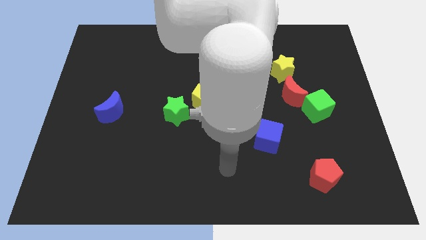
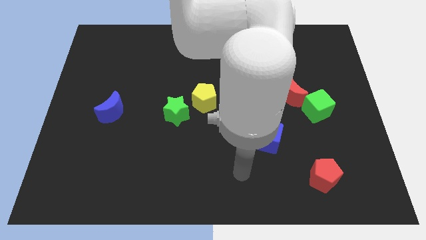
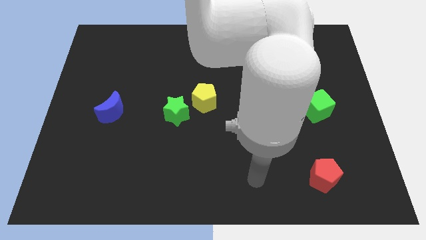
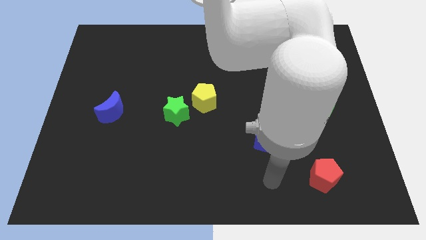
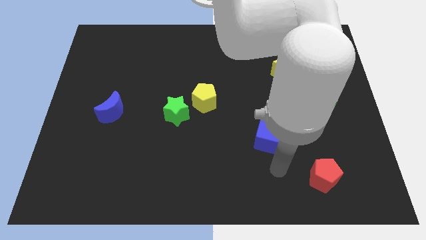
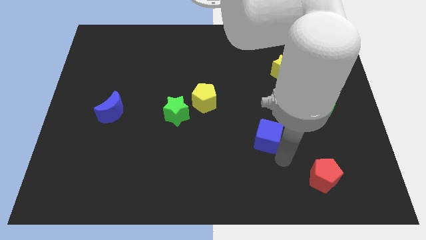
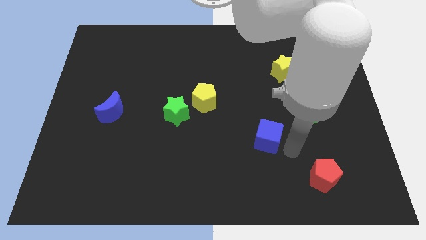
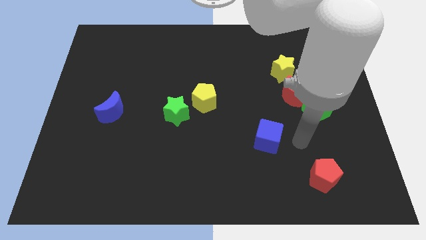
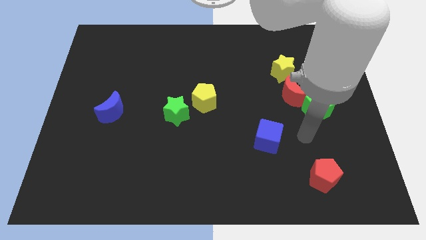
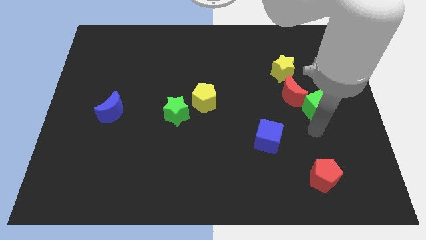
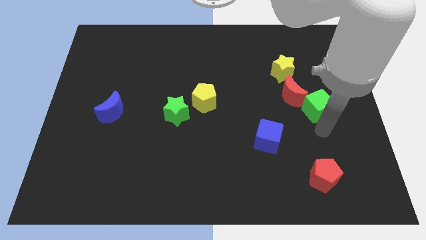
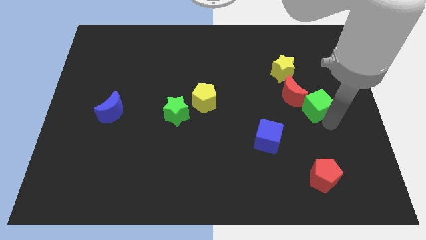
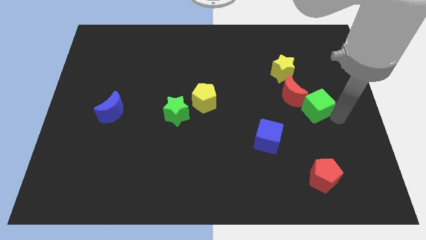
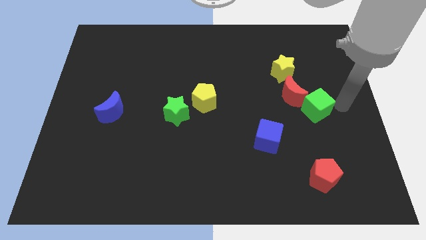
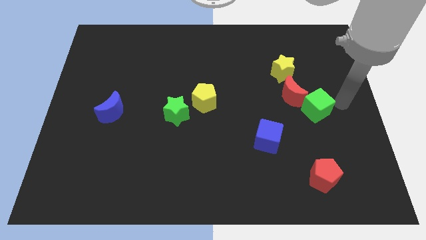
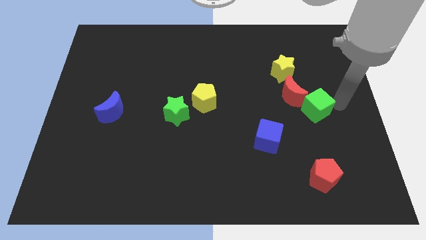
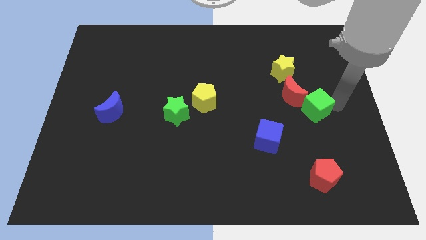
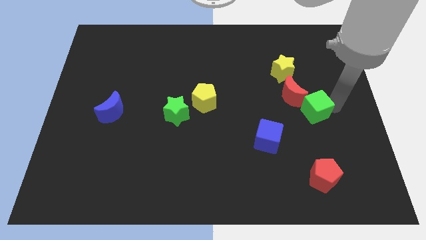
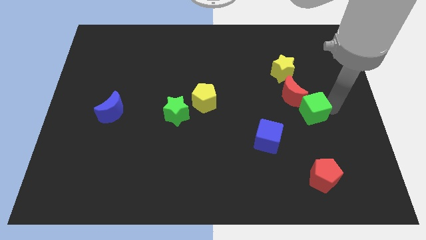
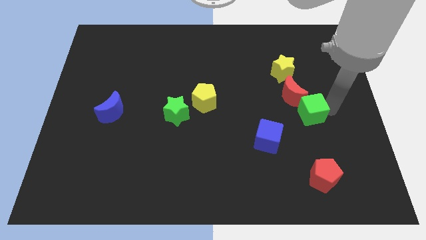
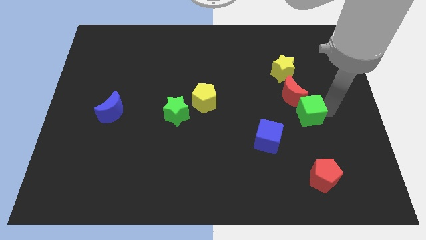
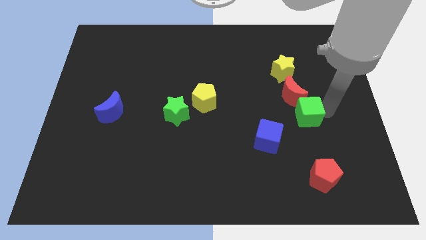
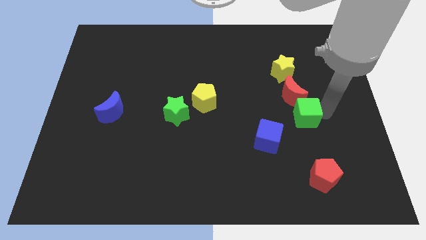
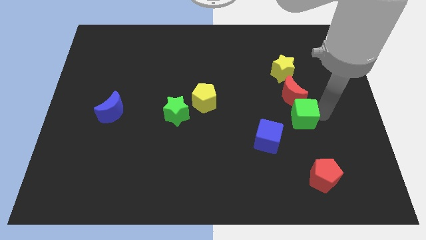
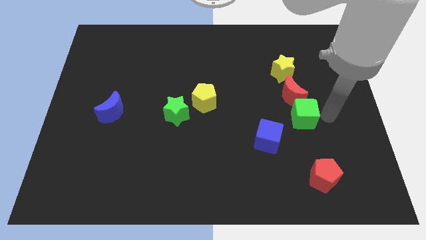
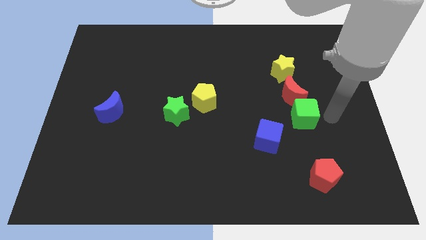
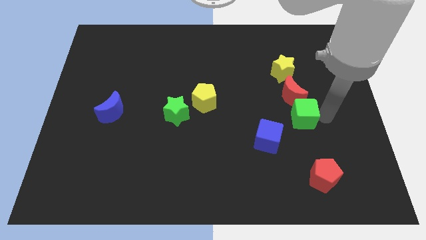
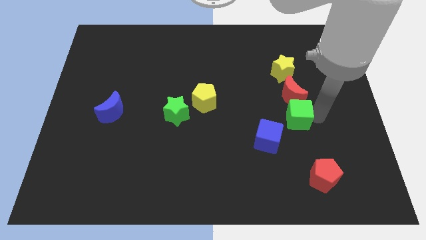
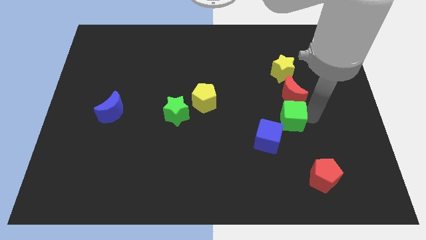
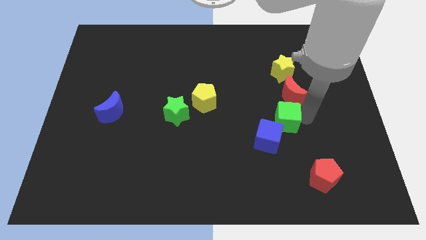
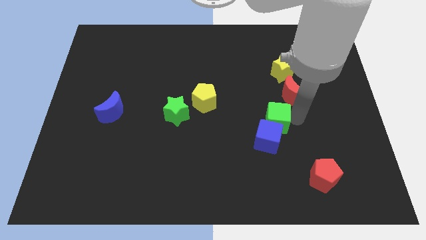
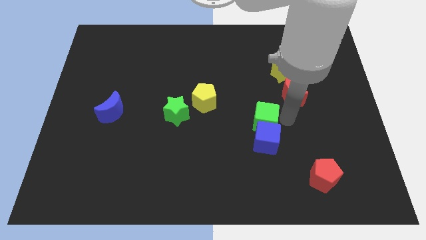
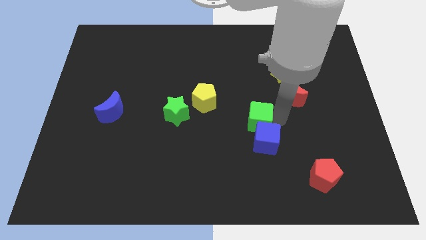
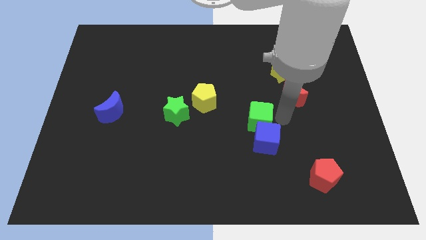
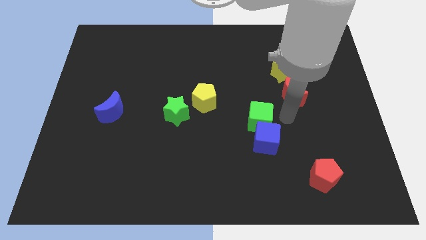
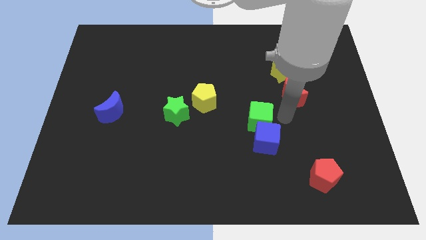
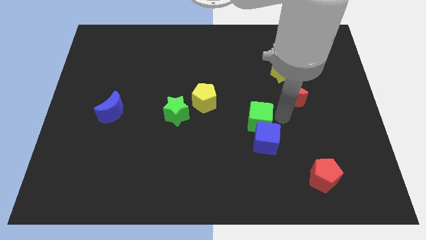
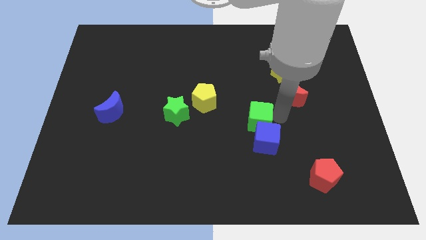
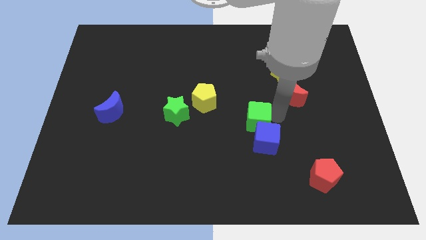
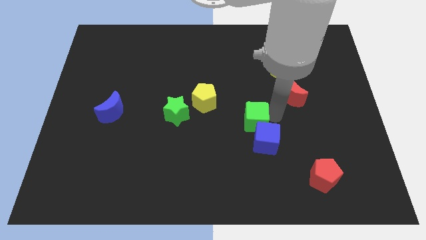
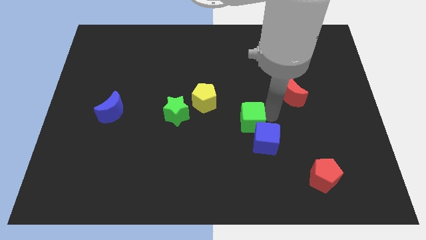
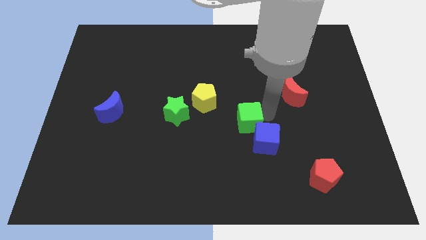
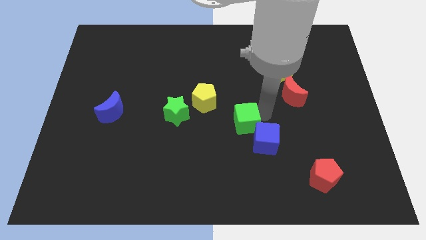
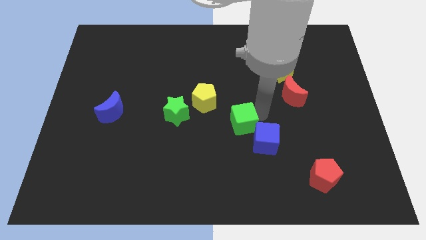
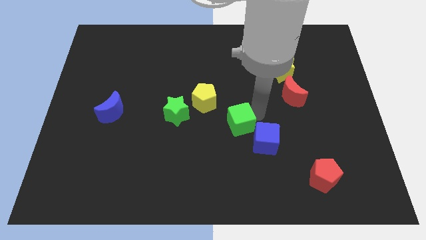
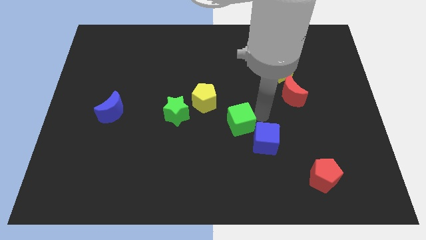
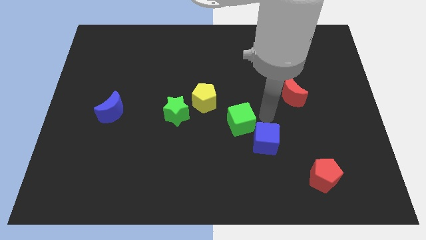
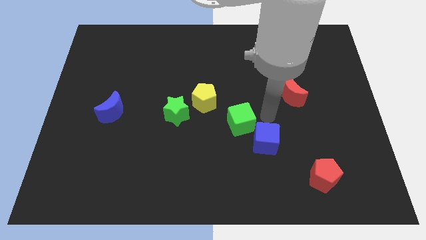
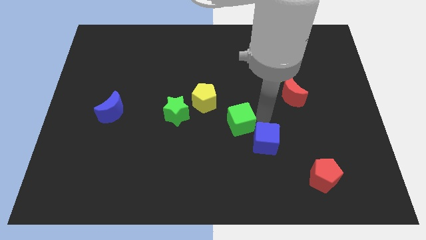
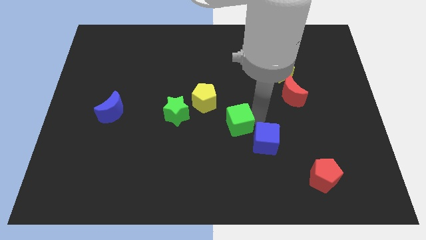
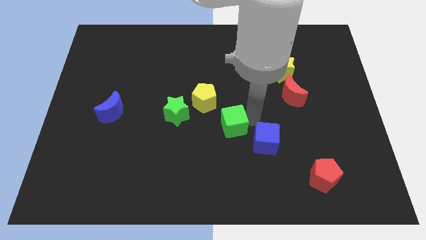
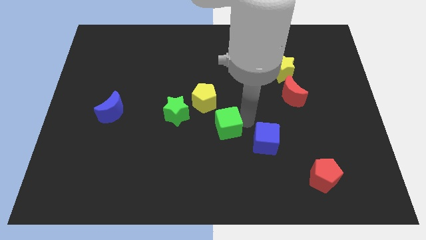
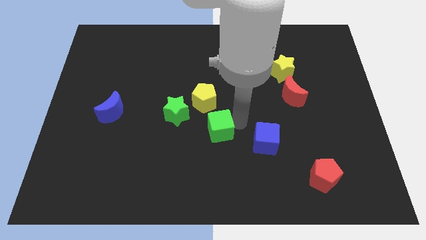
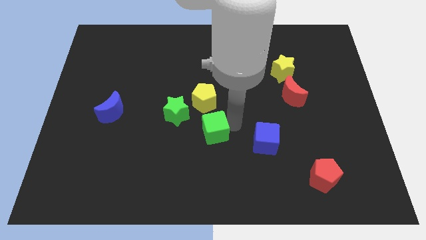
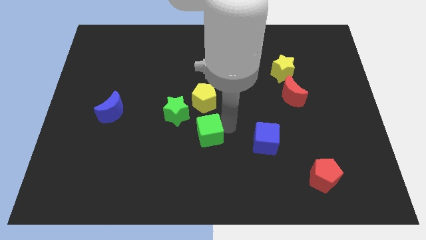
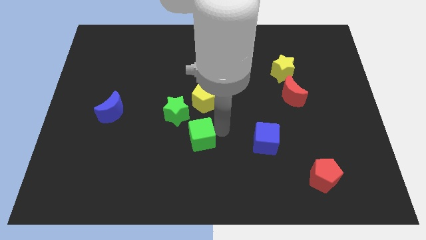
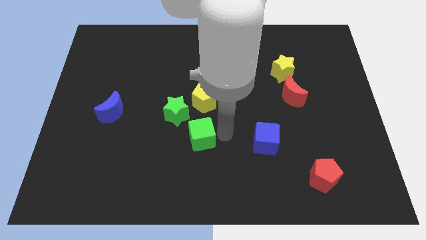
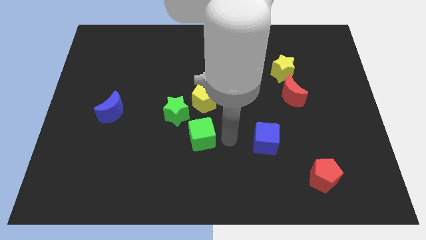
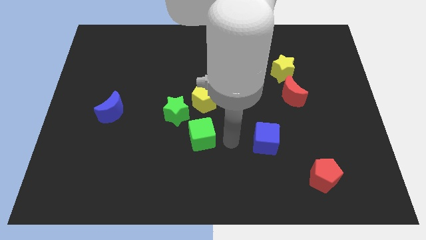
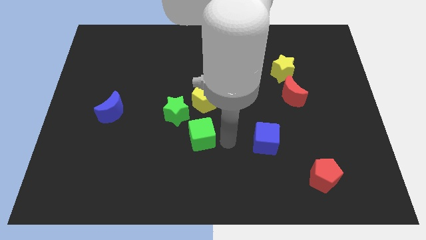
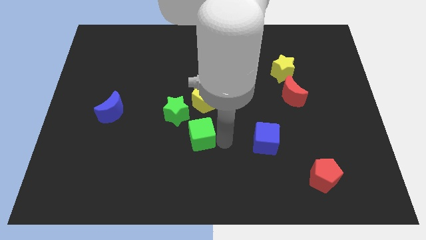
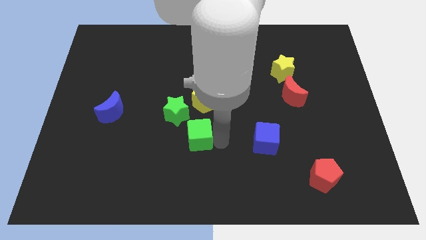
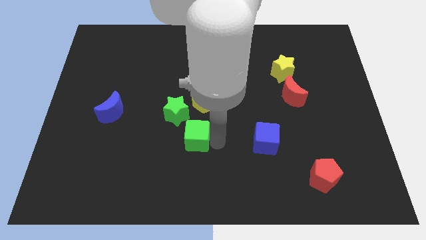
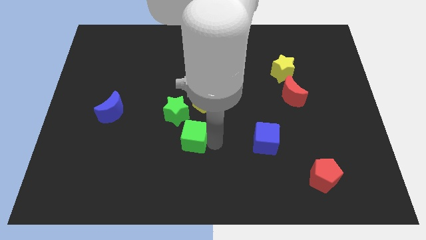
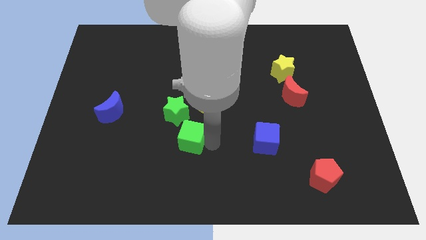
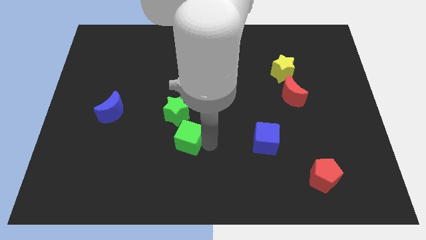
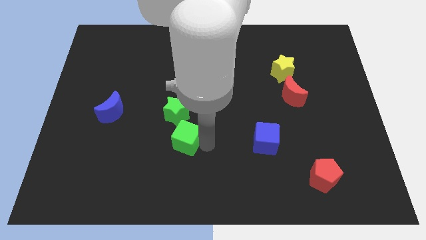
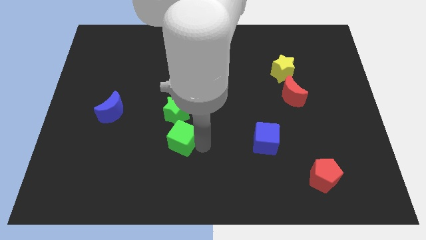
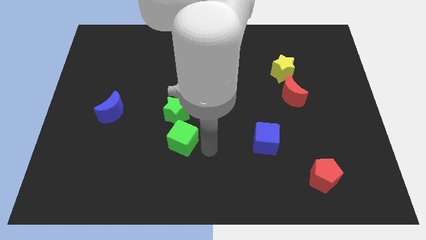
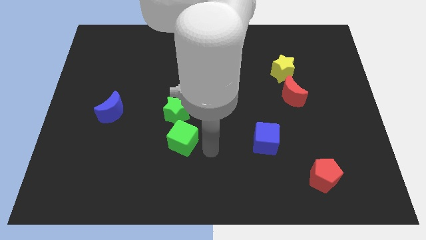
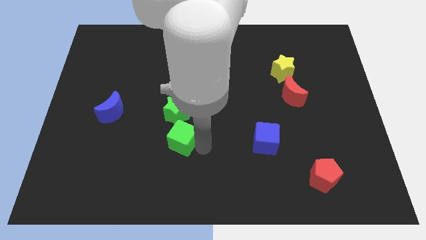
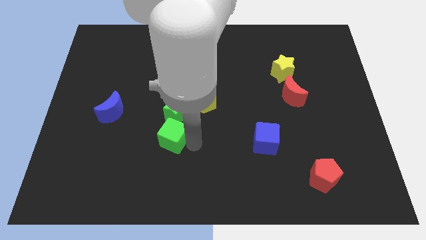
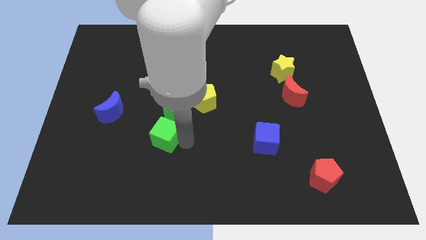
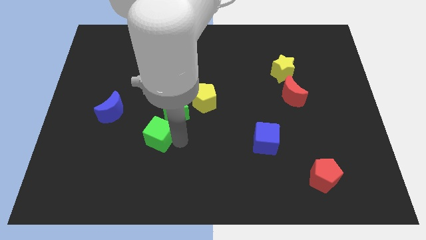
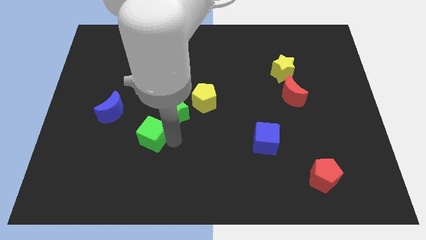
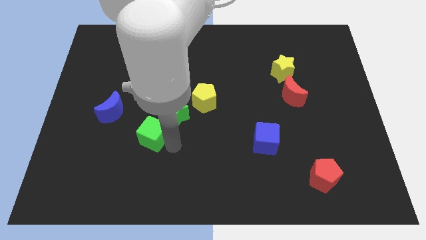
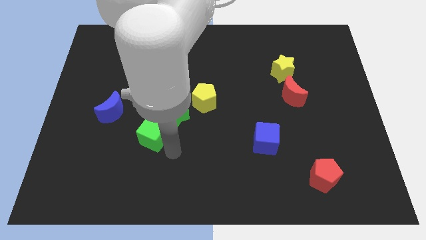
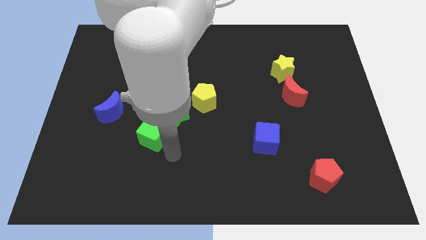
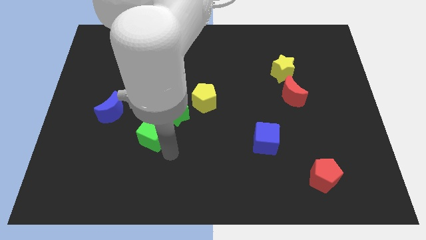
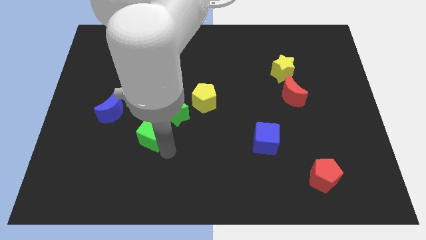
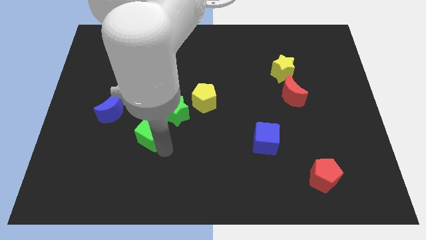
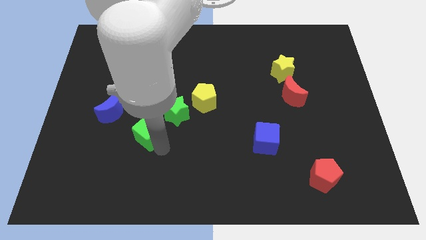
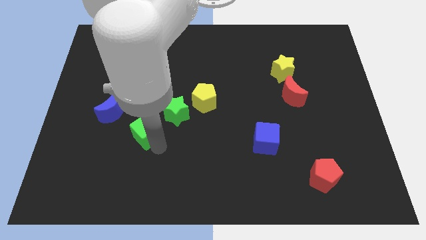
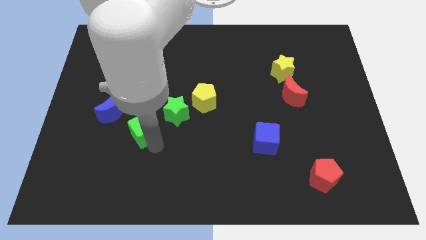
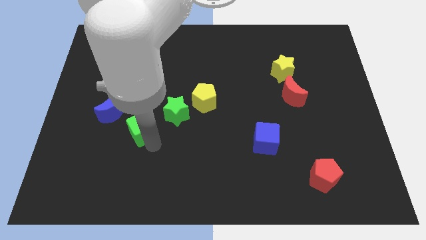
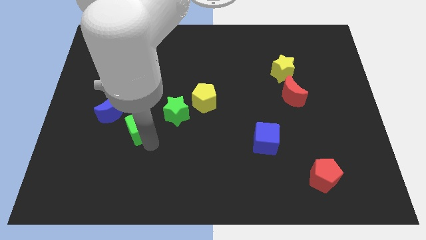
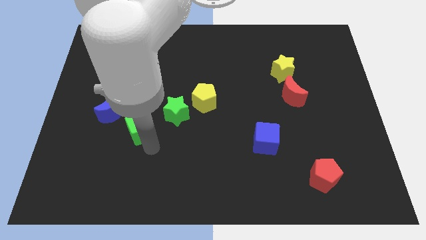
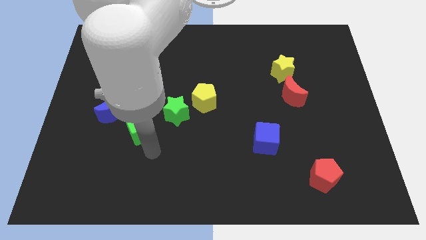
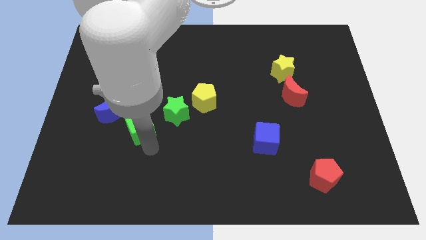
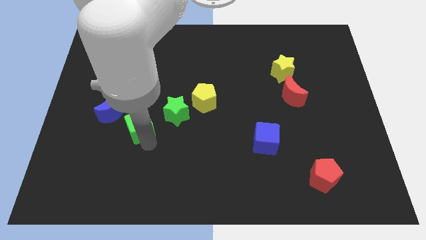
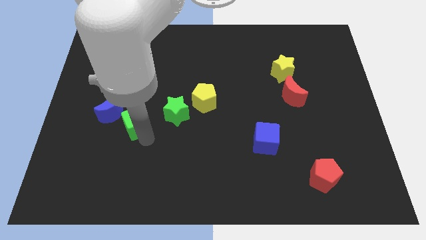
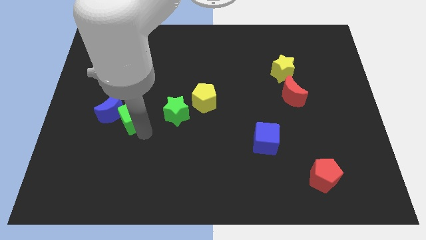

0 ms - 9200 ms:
push the green cube towards the blue moon
